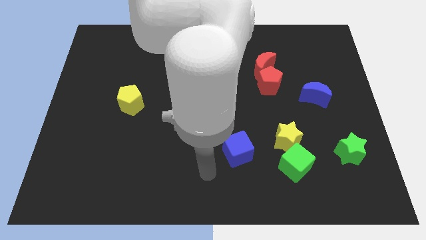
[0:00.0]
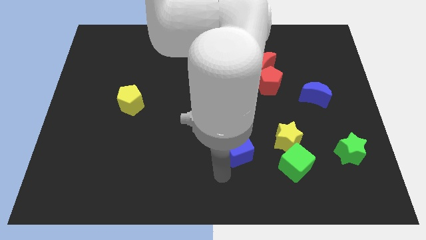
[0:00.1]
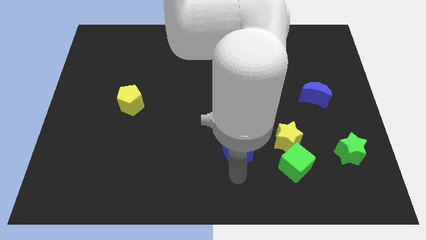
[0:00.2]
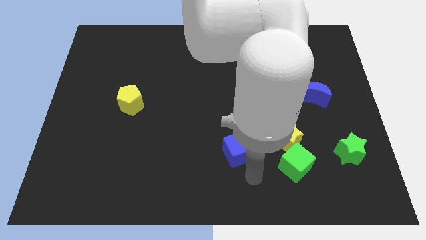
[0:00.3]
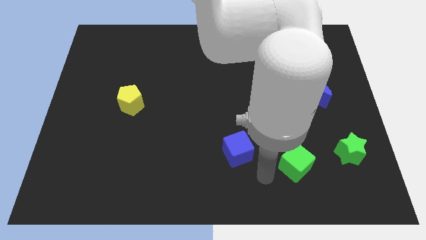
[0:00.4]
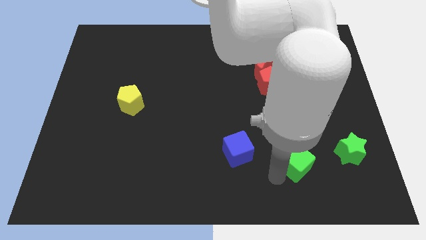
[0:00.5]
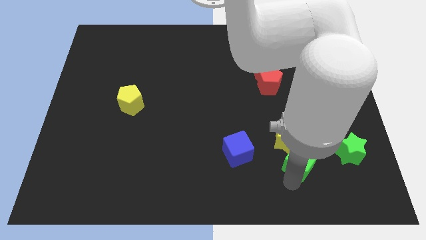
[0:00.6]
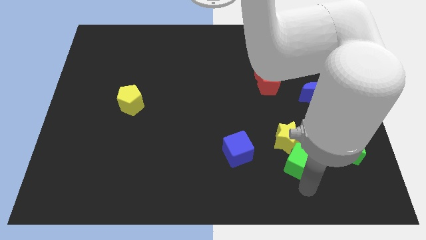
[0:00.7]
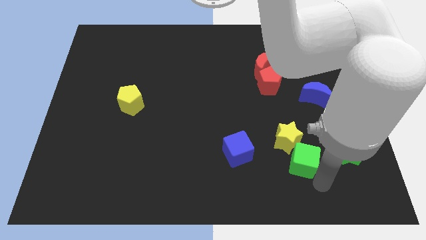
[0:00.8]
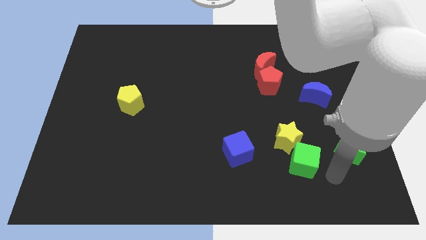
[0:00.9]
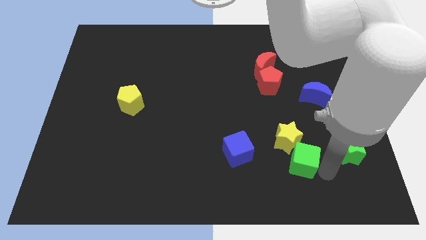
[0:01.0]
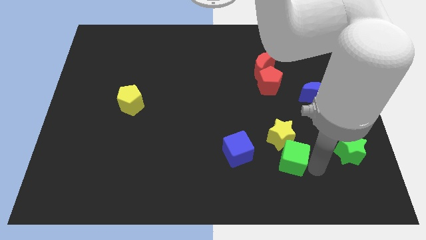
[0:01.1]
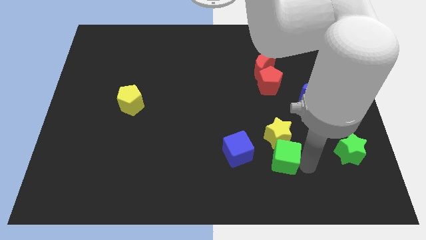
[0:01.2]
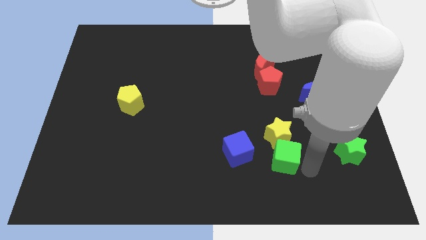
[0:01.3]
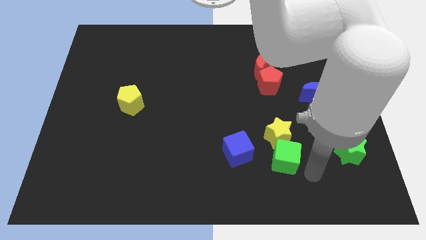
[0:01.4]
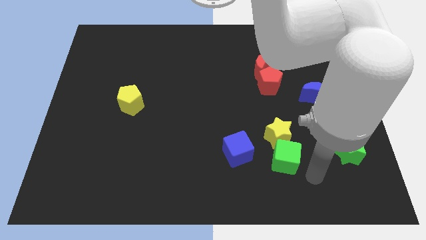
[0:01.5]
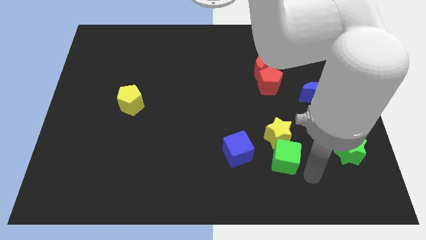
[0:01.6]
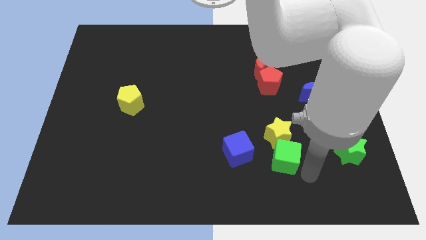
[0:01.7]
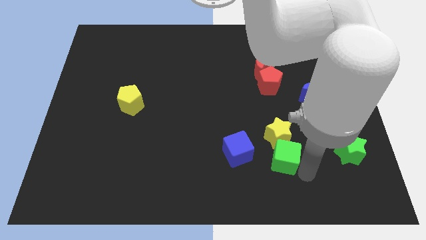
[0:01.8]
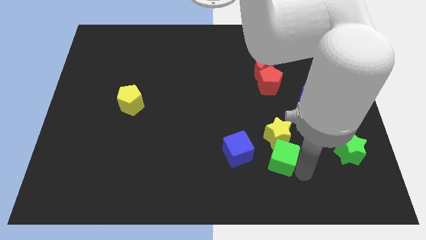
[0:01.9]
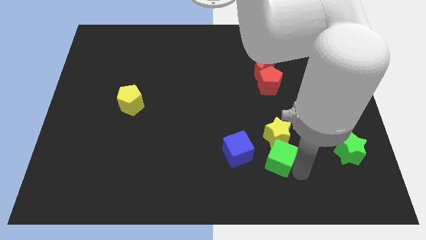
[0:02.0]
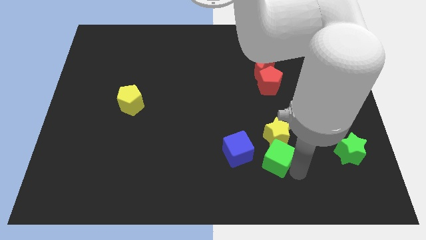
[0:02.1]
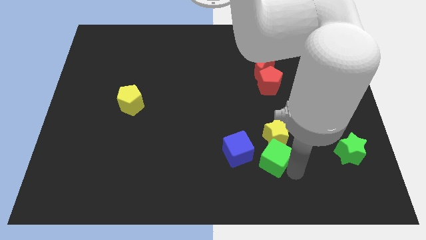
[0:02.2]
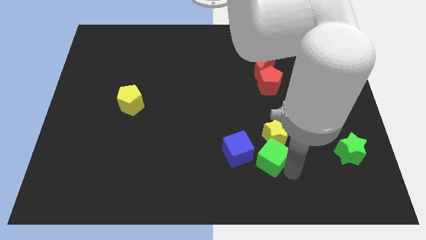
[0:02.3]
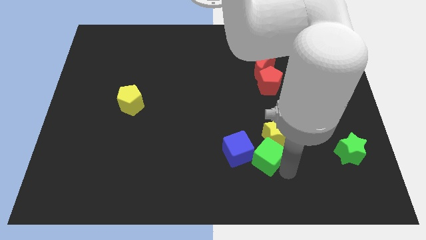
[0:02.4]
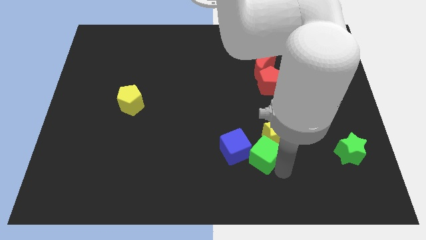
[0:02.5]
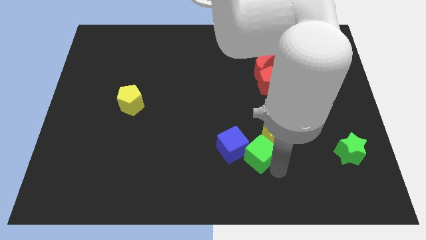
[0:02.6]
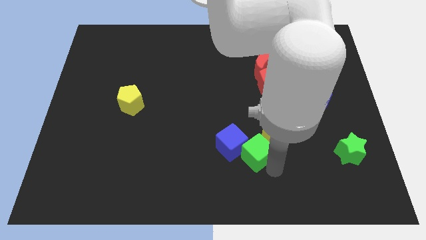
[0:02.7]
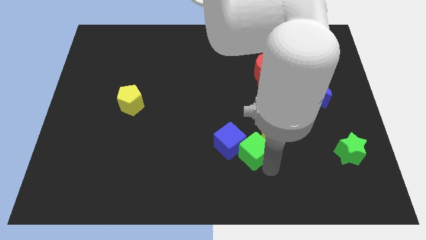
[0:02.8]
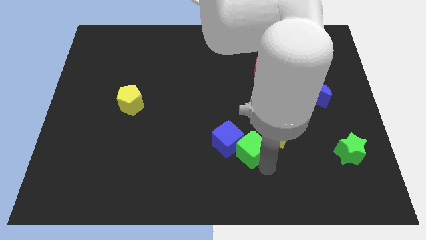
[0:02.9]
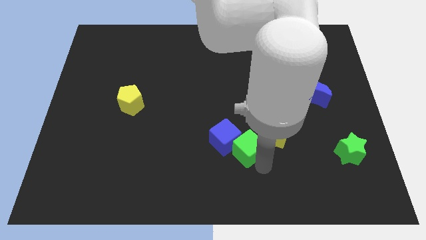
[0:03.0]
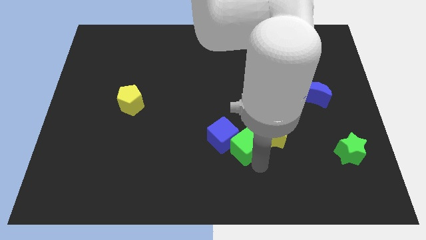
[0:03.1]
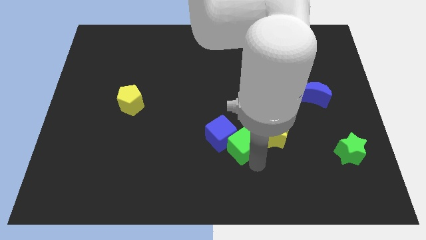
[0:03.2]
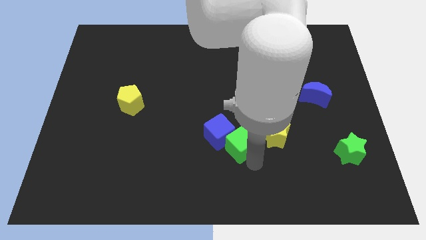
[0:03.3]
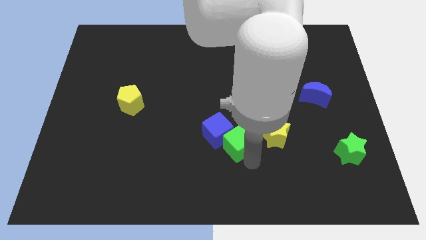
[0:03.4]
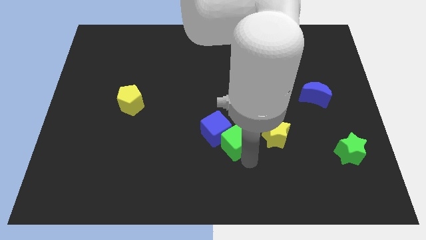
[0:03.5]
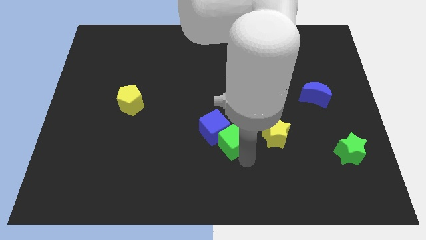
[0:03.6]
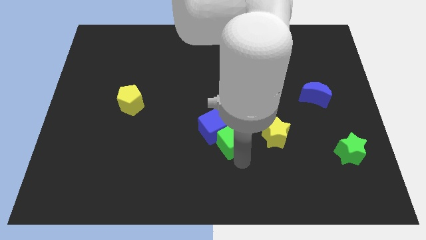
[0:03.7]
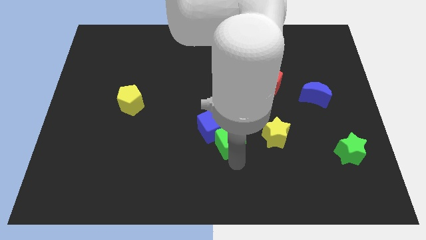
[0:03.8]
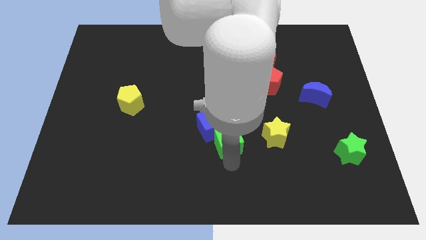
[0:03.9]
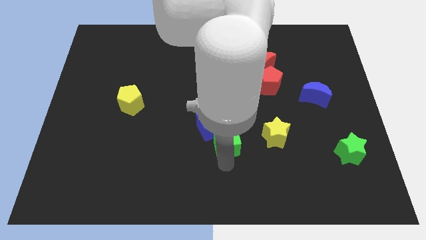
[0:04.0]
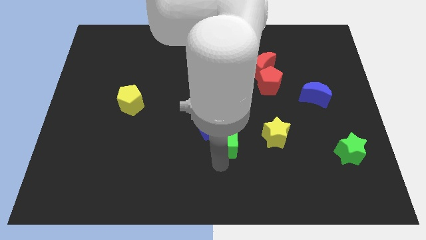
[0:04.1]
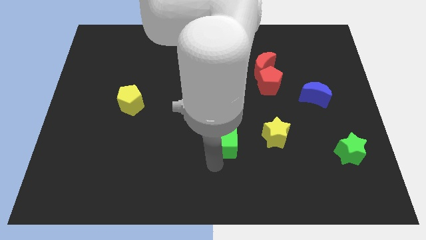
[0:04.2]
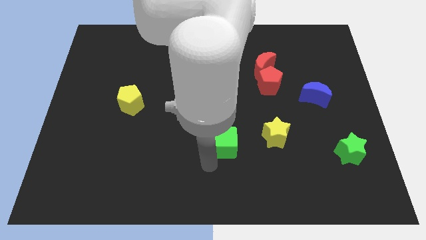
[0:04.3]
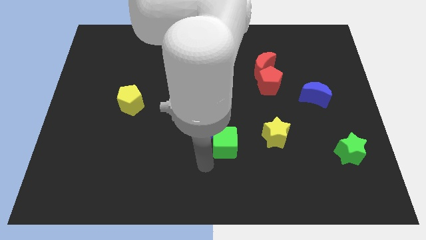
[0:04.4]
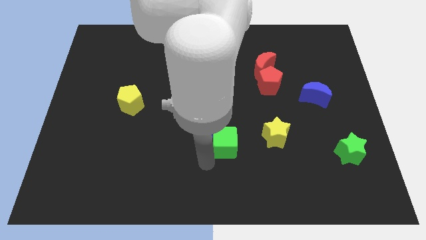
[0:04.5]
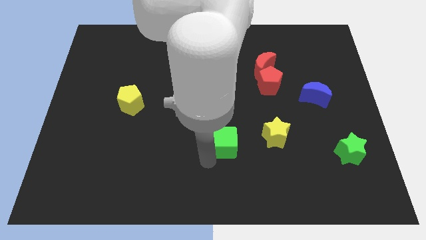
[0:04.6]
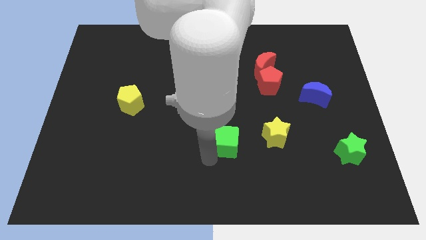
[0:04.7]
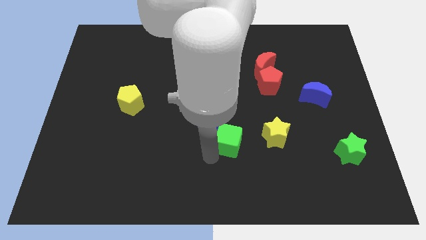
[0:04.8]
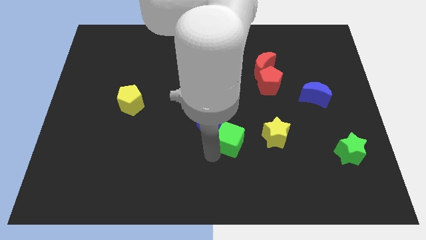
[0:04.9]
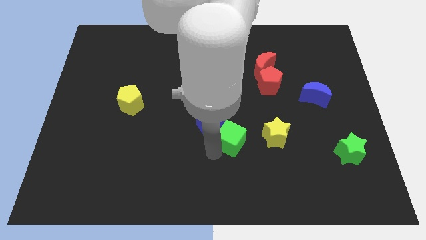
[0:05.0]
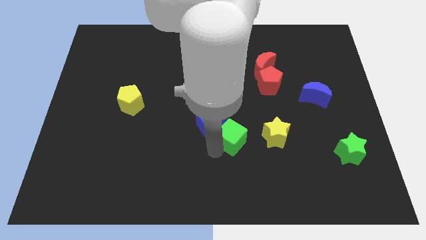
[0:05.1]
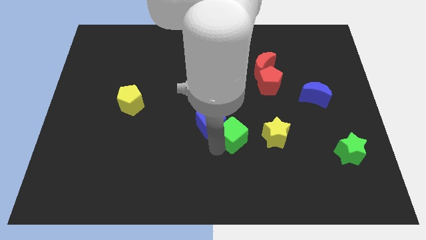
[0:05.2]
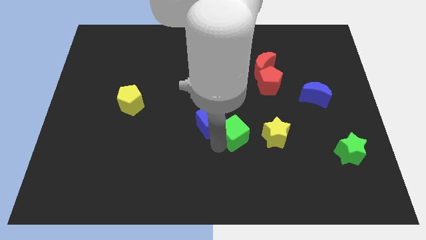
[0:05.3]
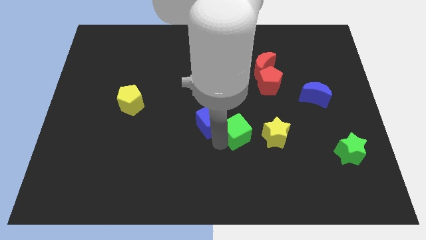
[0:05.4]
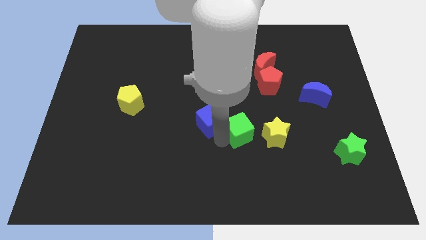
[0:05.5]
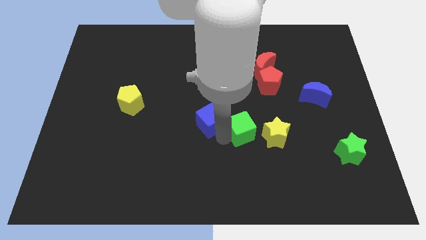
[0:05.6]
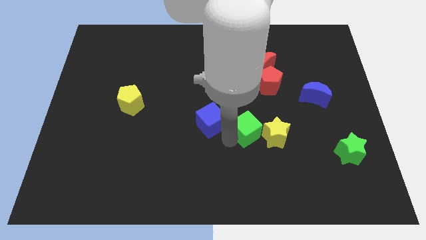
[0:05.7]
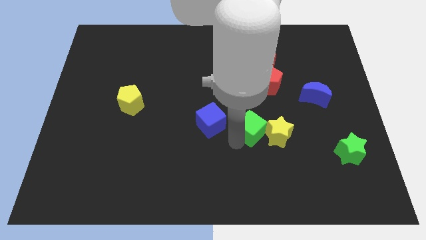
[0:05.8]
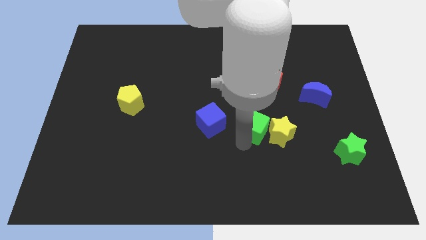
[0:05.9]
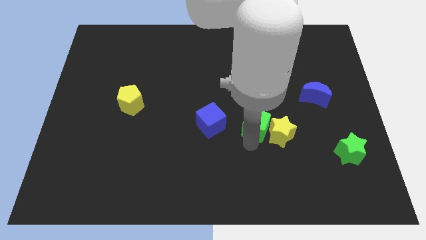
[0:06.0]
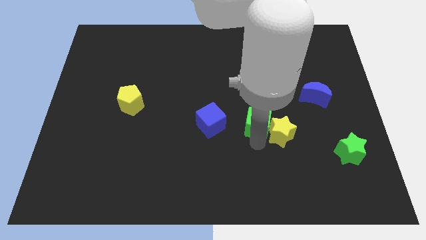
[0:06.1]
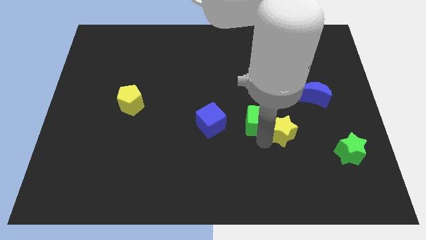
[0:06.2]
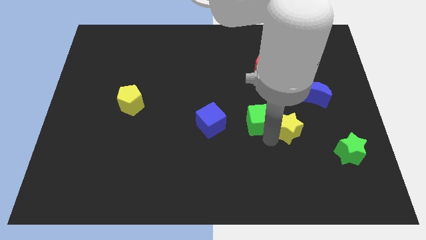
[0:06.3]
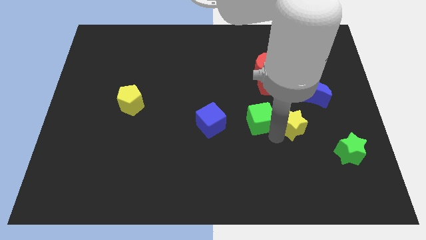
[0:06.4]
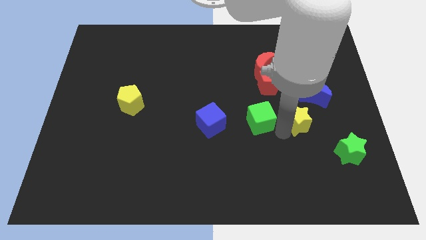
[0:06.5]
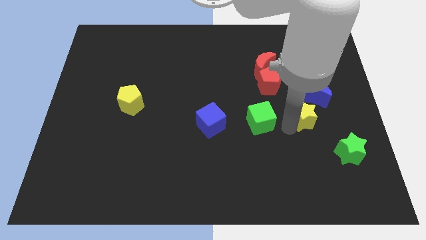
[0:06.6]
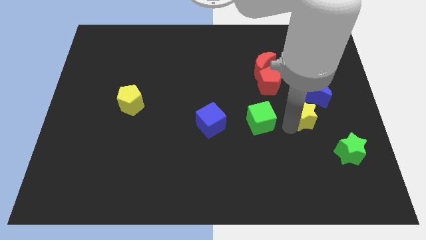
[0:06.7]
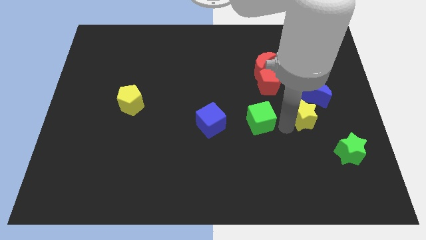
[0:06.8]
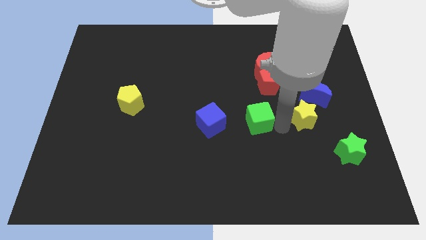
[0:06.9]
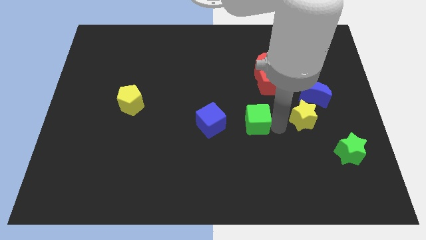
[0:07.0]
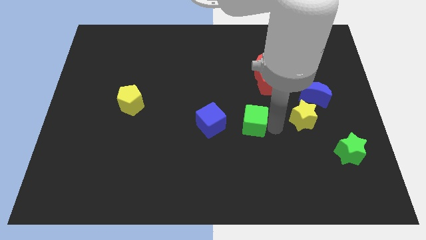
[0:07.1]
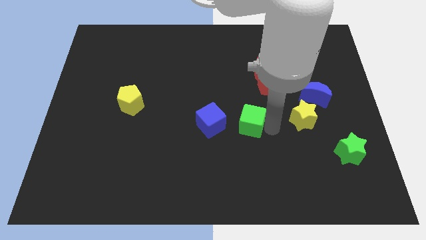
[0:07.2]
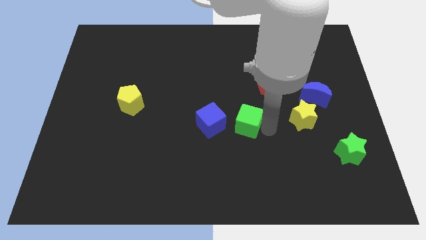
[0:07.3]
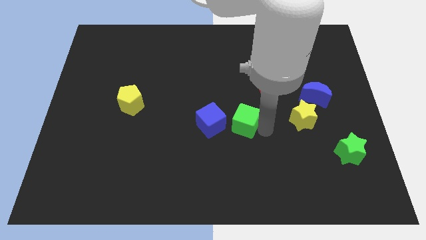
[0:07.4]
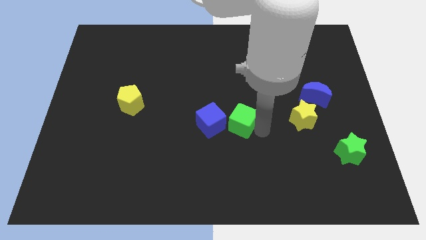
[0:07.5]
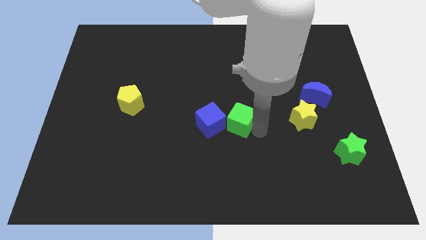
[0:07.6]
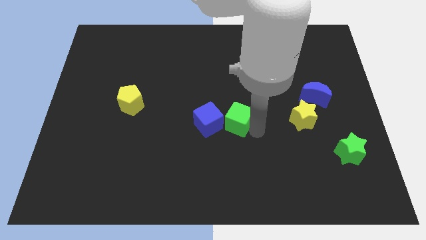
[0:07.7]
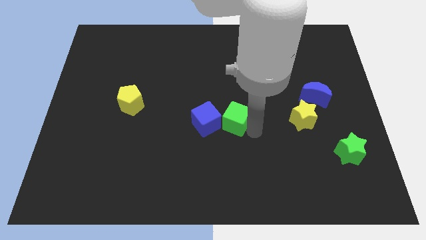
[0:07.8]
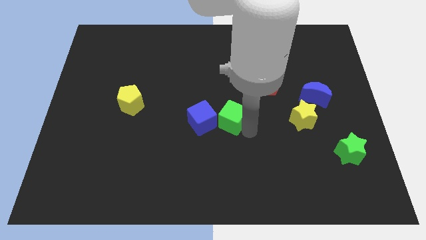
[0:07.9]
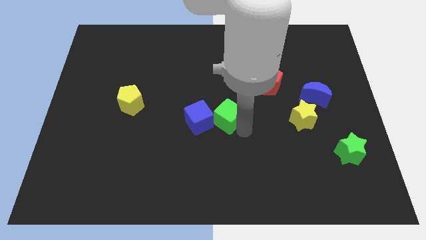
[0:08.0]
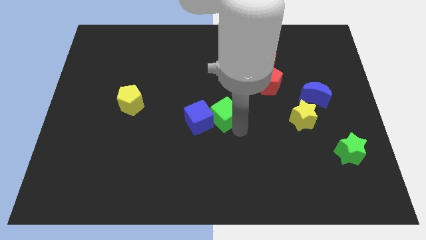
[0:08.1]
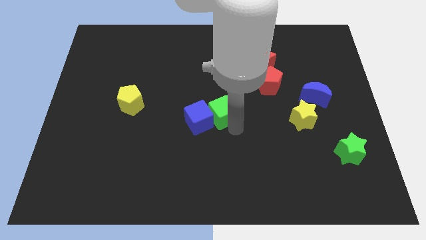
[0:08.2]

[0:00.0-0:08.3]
move the green cube up and left diagonally

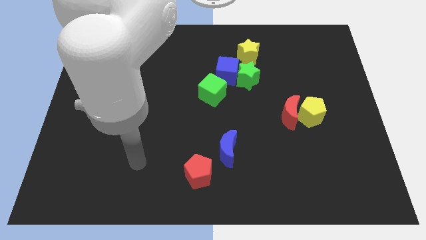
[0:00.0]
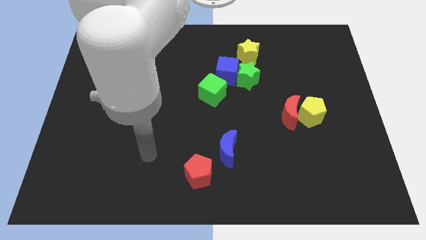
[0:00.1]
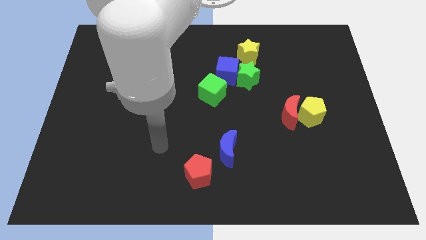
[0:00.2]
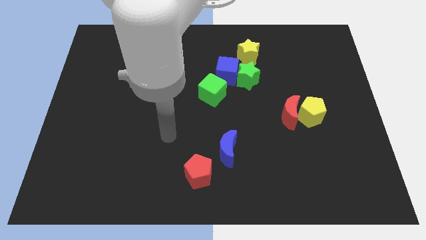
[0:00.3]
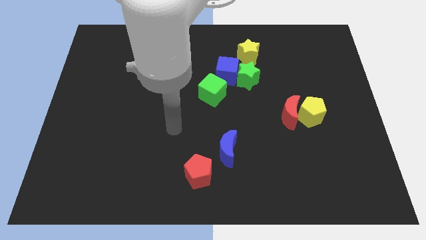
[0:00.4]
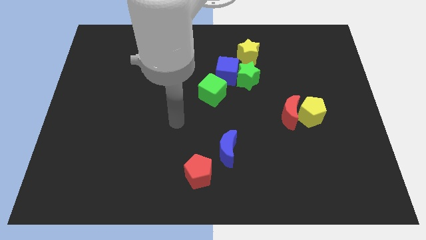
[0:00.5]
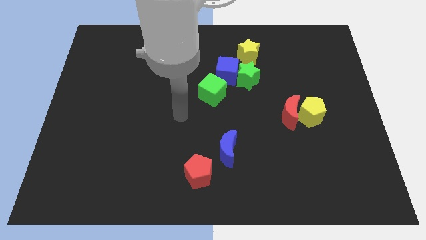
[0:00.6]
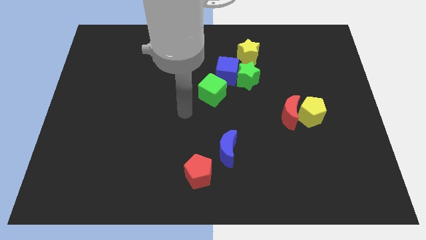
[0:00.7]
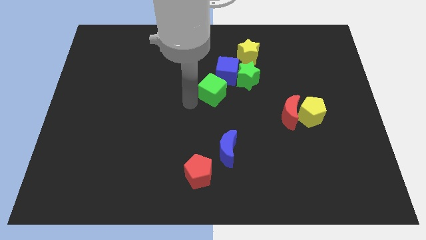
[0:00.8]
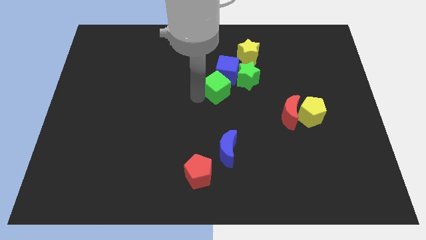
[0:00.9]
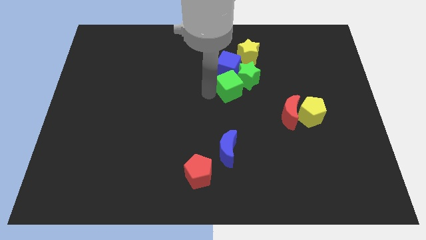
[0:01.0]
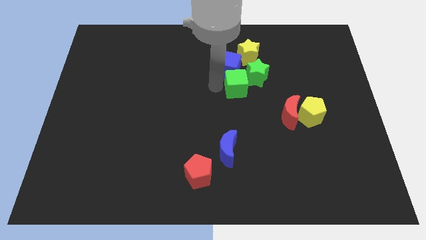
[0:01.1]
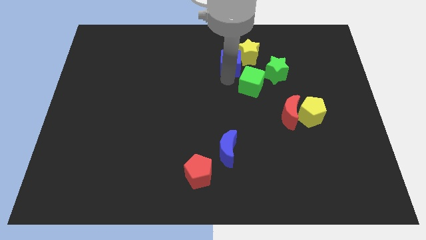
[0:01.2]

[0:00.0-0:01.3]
slide the green star right a bit
